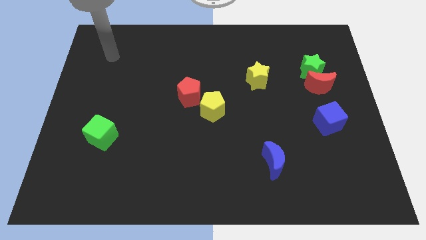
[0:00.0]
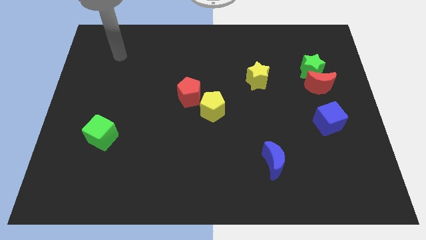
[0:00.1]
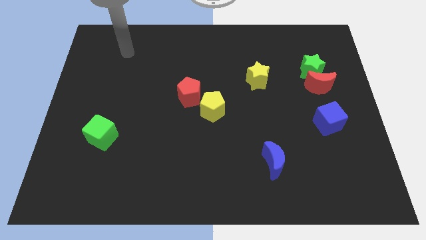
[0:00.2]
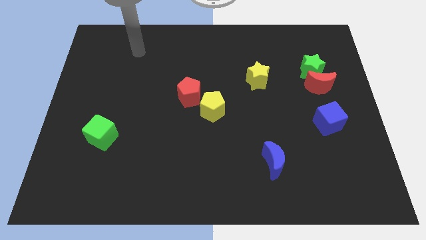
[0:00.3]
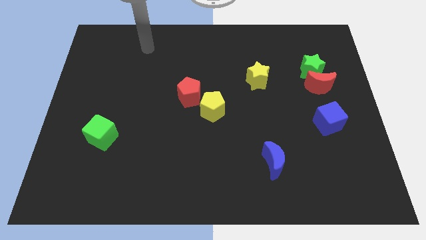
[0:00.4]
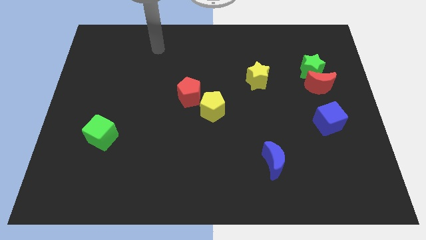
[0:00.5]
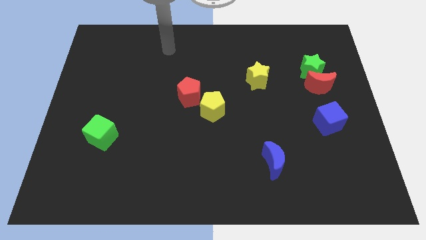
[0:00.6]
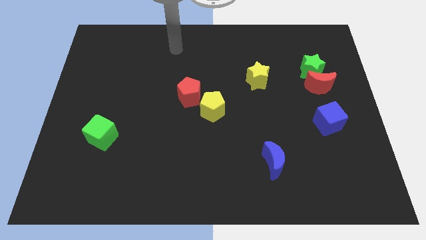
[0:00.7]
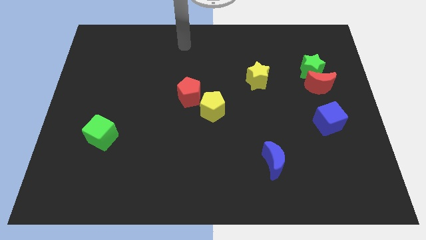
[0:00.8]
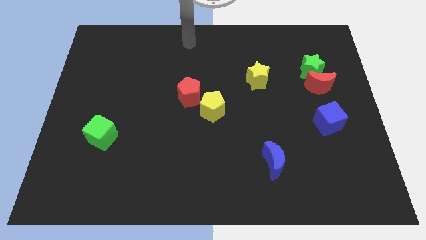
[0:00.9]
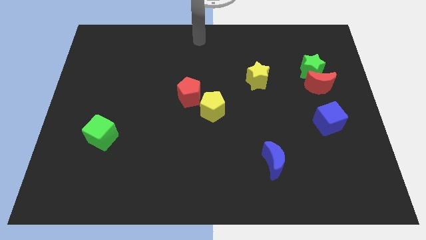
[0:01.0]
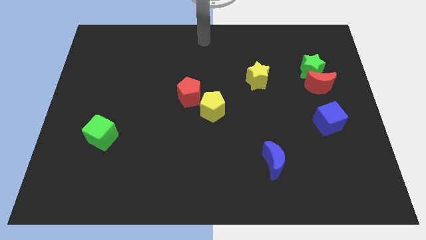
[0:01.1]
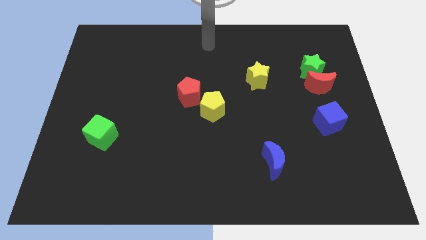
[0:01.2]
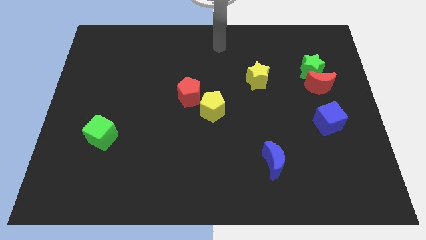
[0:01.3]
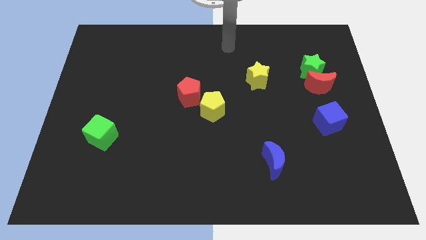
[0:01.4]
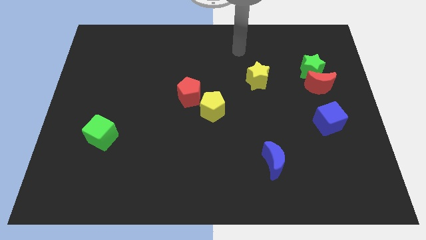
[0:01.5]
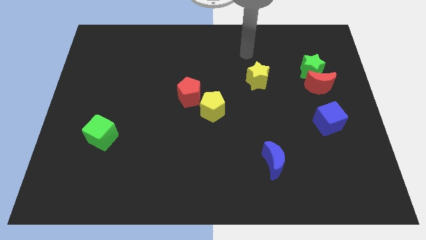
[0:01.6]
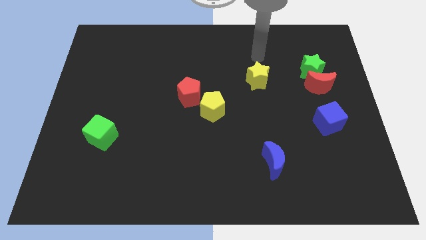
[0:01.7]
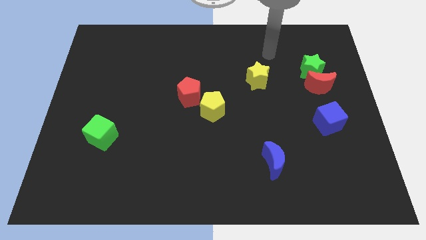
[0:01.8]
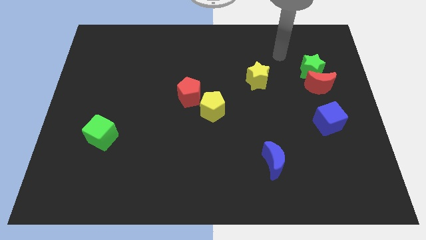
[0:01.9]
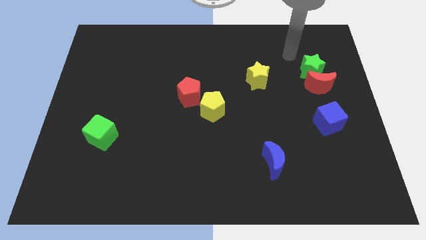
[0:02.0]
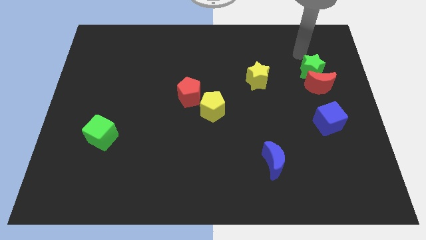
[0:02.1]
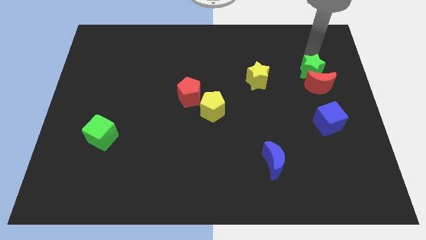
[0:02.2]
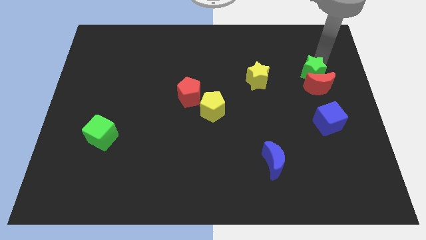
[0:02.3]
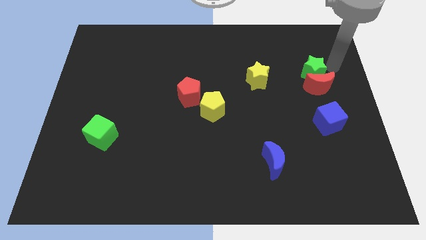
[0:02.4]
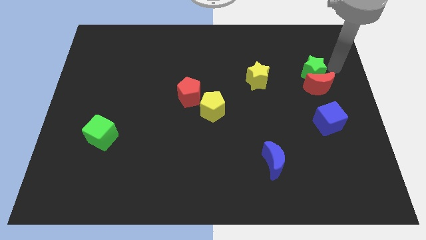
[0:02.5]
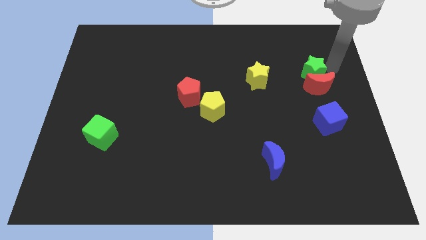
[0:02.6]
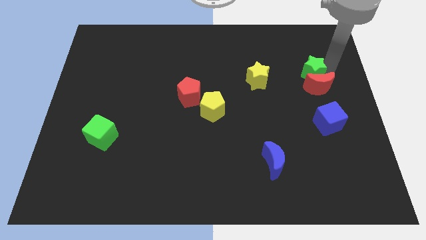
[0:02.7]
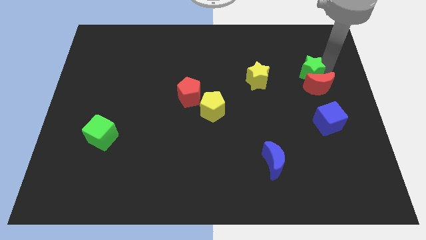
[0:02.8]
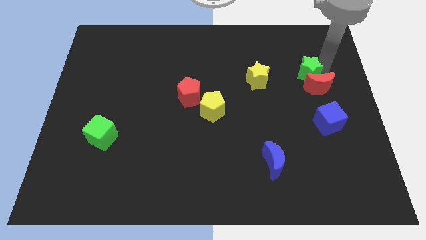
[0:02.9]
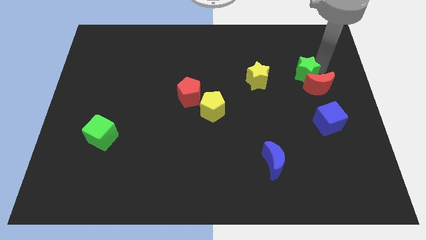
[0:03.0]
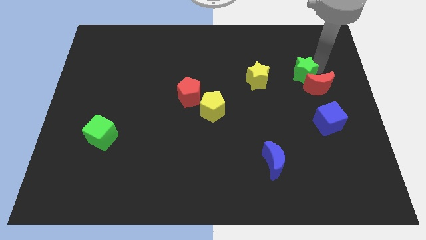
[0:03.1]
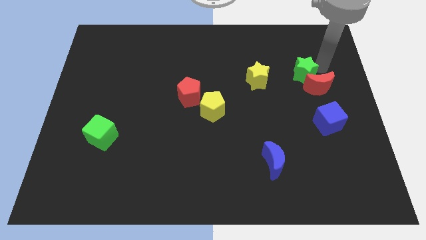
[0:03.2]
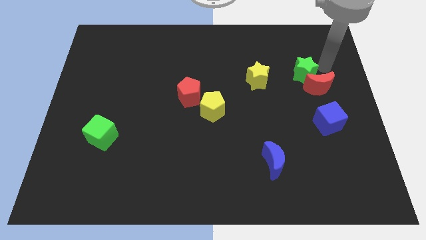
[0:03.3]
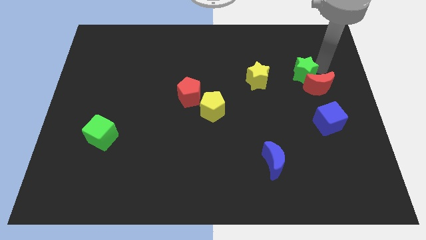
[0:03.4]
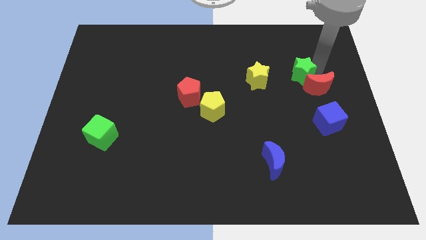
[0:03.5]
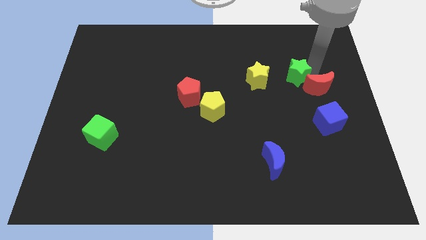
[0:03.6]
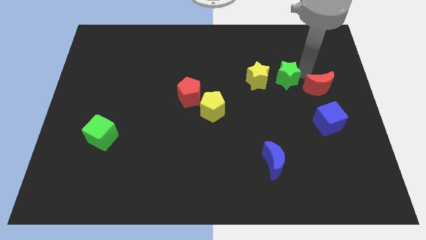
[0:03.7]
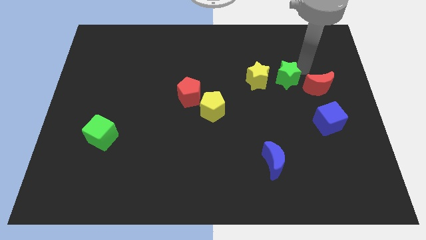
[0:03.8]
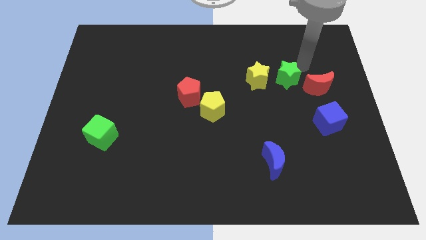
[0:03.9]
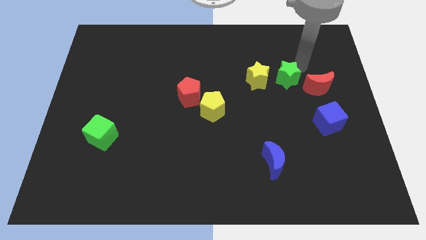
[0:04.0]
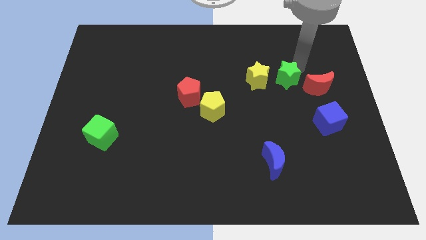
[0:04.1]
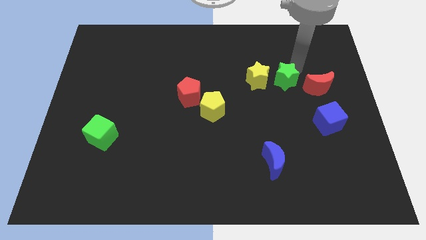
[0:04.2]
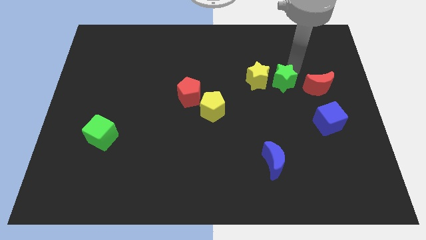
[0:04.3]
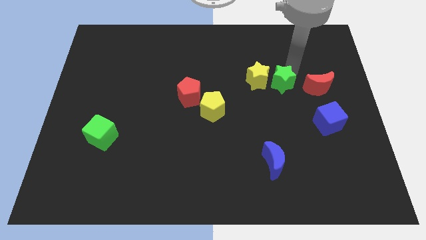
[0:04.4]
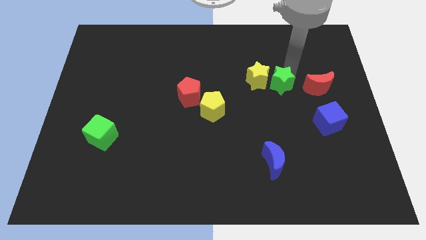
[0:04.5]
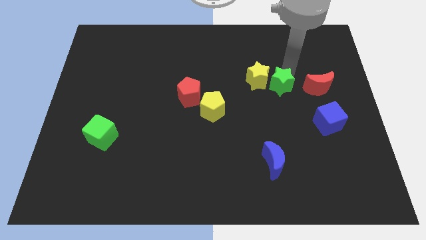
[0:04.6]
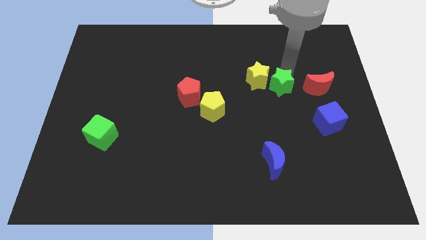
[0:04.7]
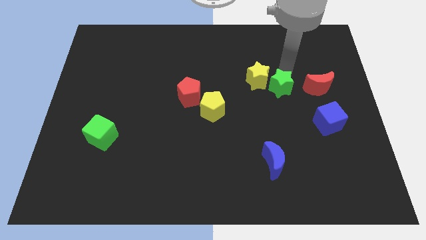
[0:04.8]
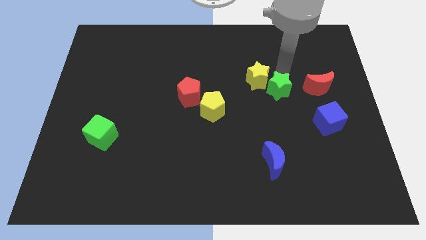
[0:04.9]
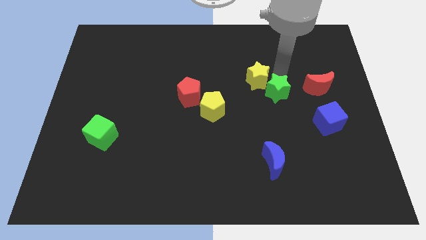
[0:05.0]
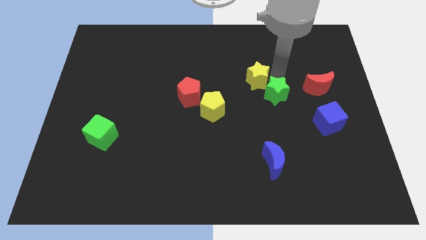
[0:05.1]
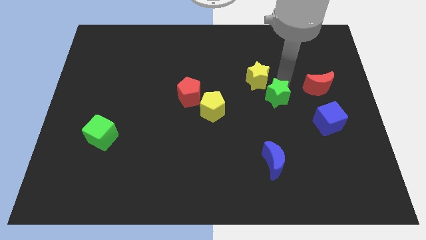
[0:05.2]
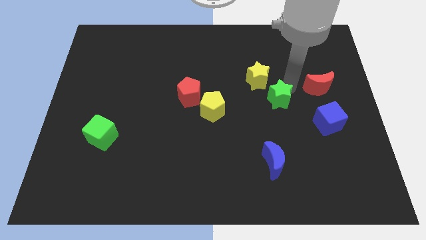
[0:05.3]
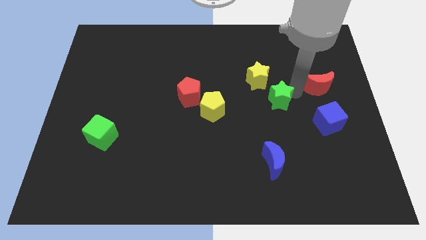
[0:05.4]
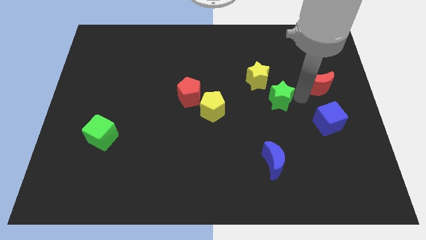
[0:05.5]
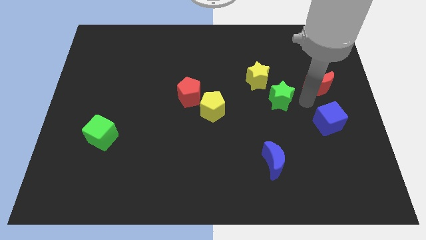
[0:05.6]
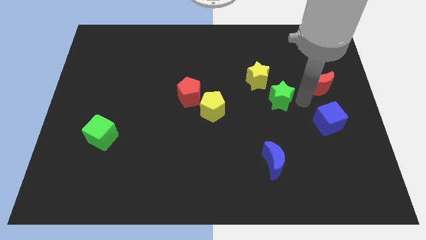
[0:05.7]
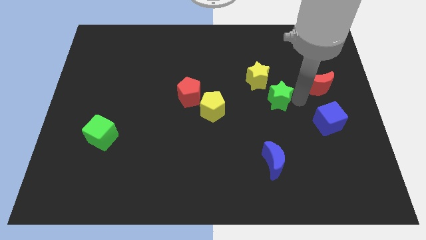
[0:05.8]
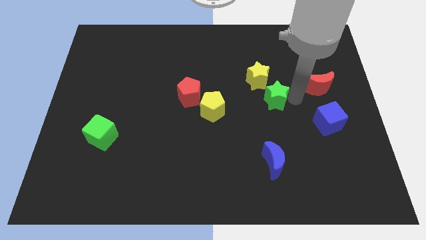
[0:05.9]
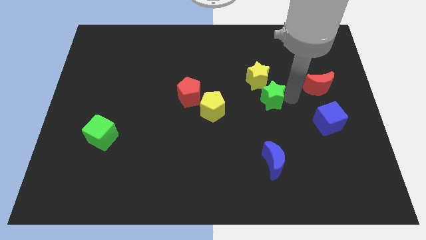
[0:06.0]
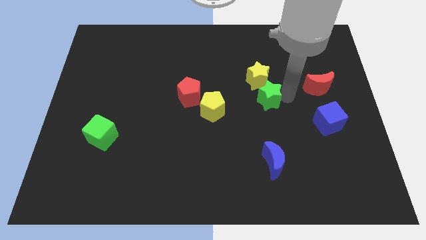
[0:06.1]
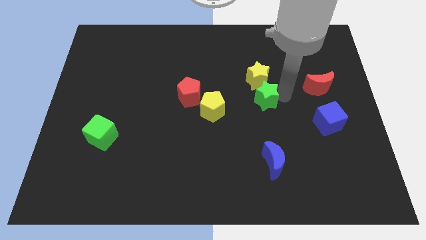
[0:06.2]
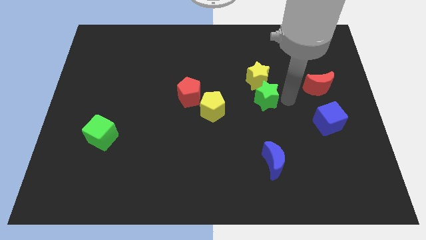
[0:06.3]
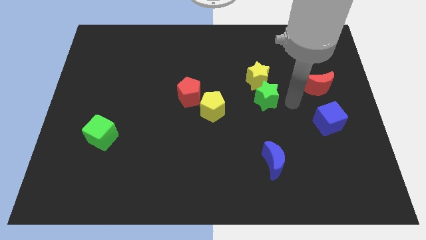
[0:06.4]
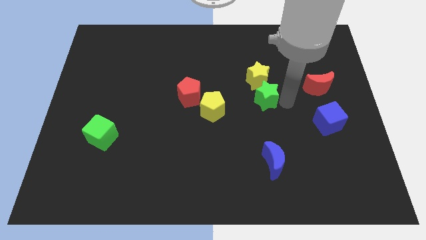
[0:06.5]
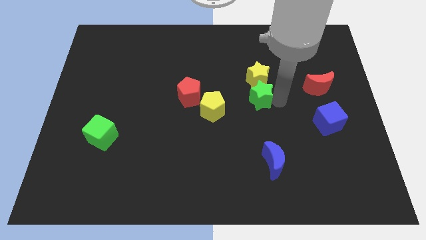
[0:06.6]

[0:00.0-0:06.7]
move the green star diagonally down and to the left of the yellow star
